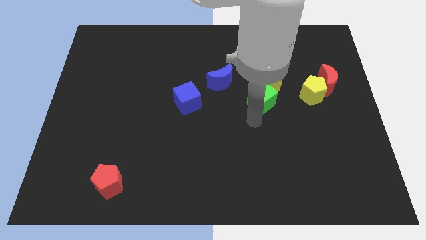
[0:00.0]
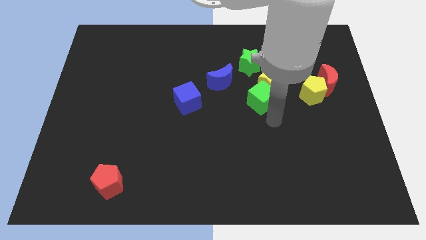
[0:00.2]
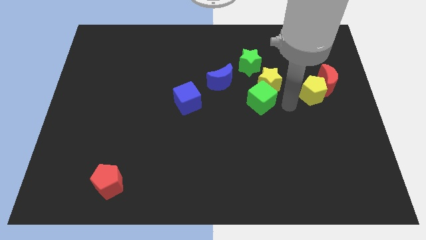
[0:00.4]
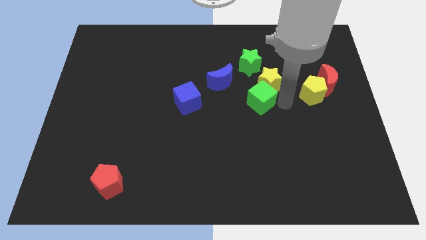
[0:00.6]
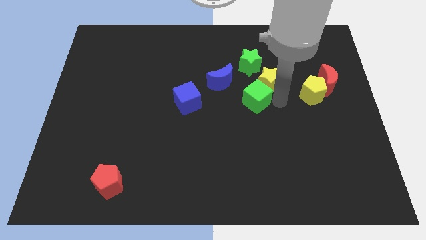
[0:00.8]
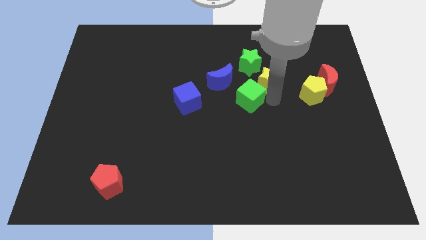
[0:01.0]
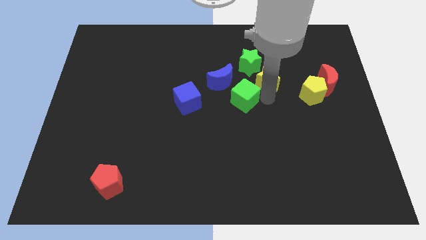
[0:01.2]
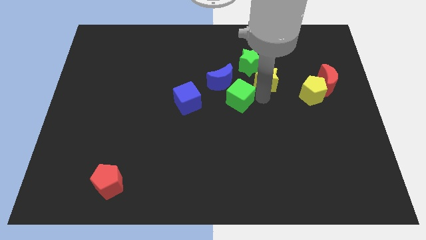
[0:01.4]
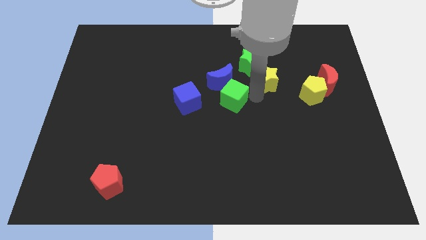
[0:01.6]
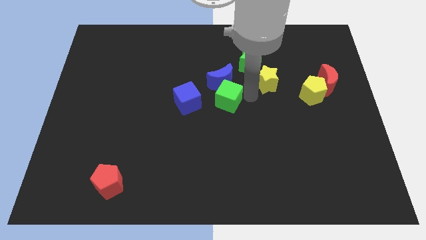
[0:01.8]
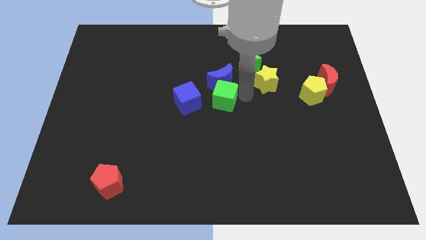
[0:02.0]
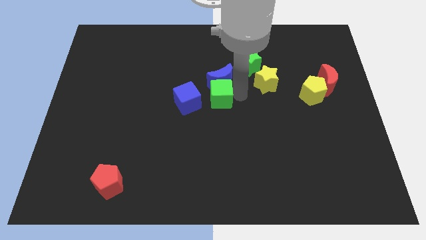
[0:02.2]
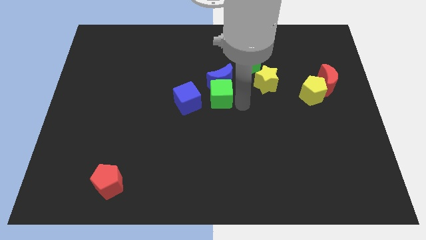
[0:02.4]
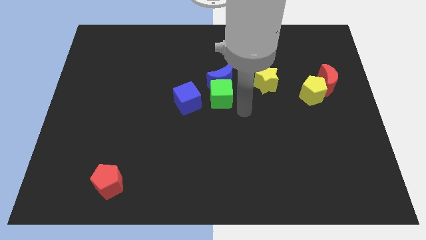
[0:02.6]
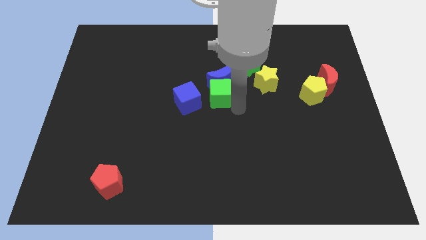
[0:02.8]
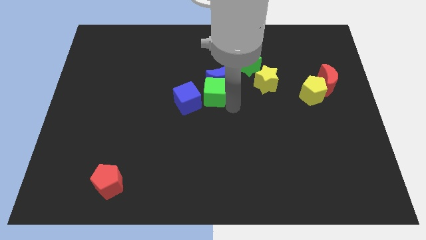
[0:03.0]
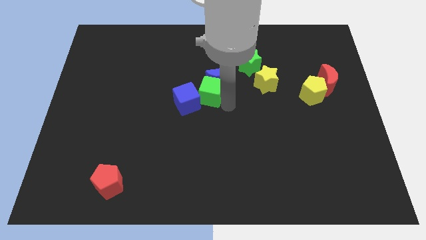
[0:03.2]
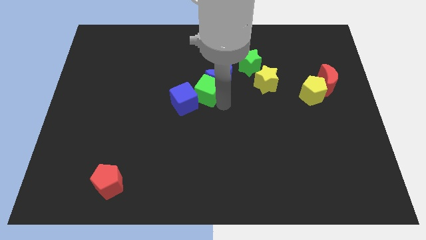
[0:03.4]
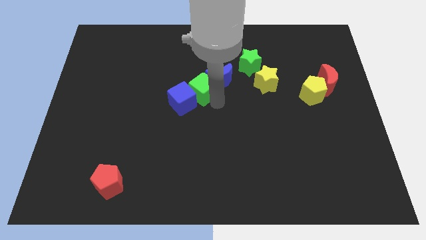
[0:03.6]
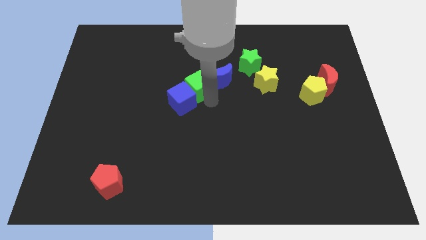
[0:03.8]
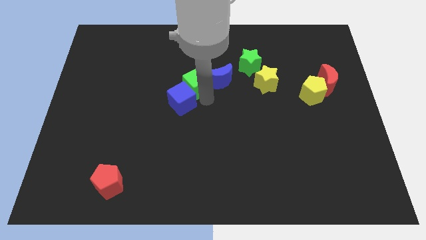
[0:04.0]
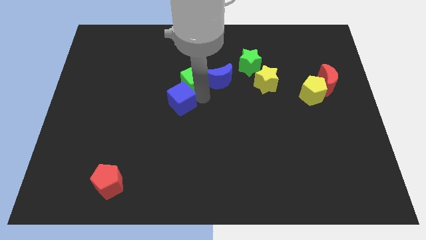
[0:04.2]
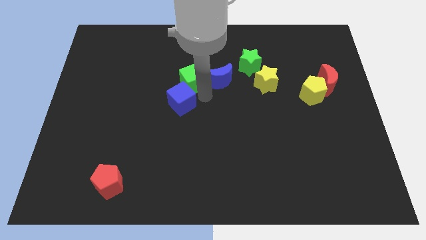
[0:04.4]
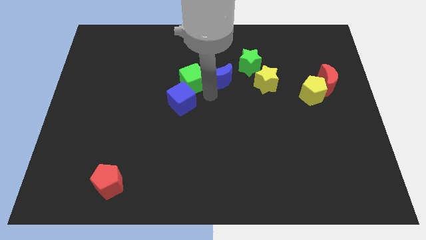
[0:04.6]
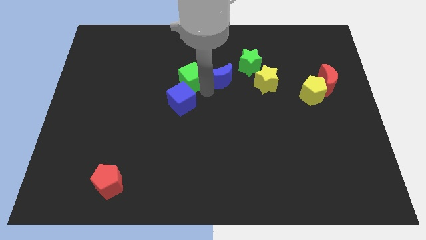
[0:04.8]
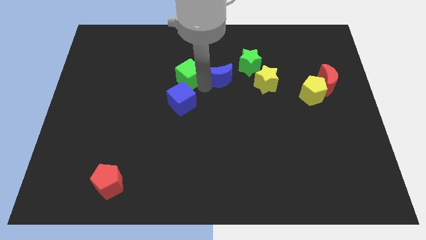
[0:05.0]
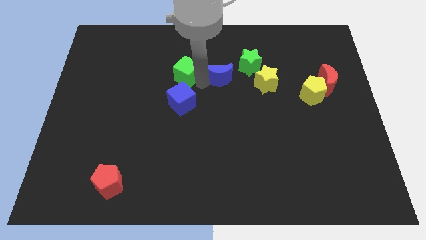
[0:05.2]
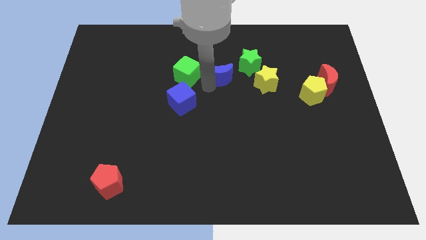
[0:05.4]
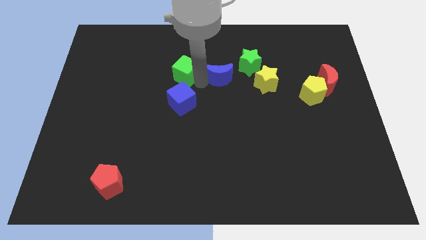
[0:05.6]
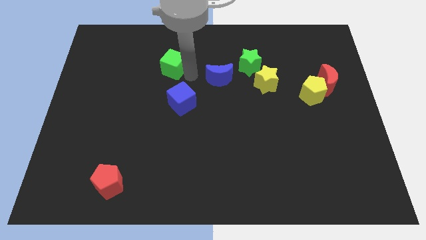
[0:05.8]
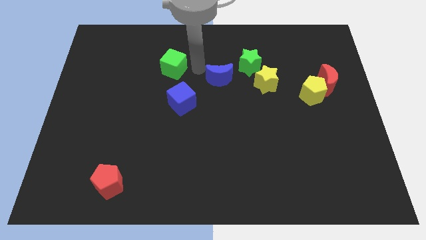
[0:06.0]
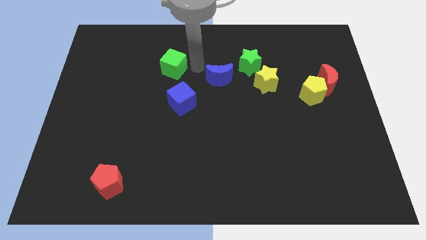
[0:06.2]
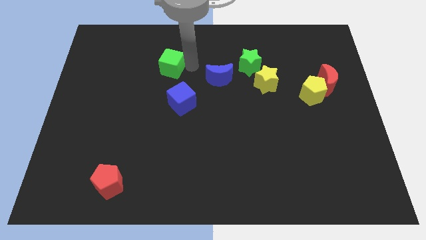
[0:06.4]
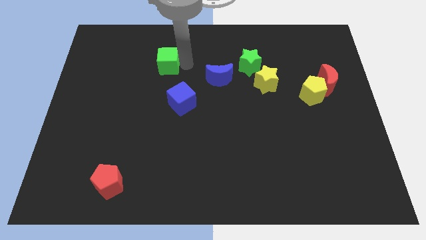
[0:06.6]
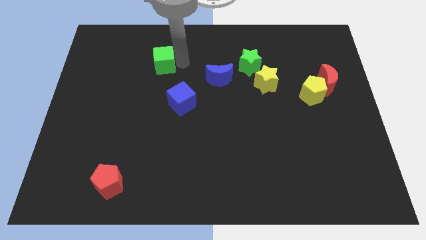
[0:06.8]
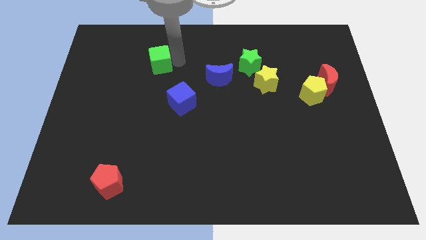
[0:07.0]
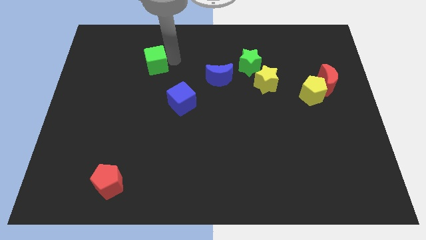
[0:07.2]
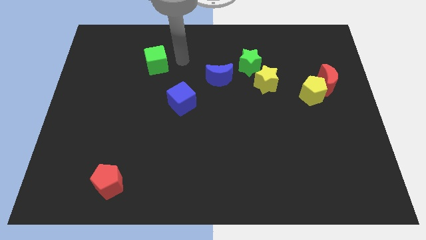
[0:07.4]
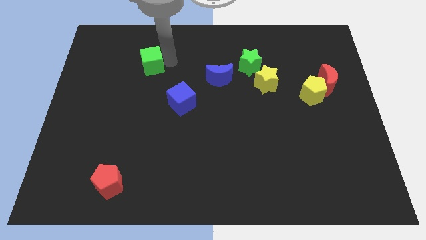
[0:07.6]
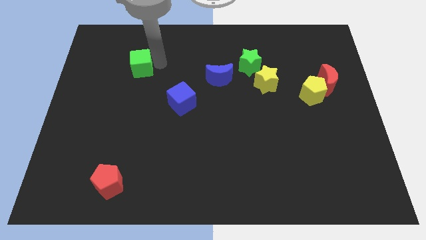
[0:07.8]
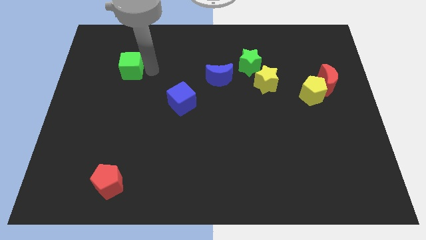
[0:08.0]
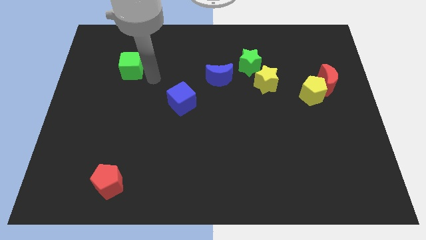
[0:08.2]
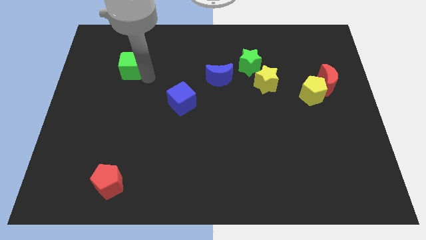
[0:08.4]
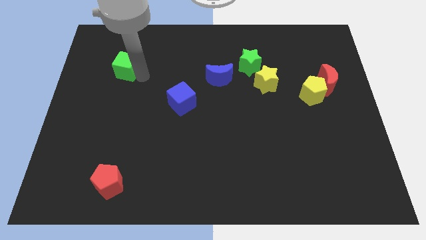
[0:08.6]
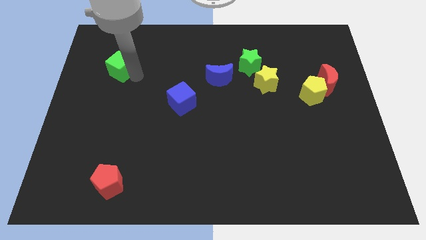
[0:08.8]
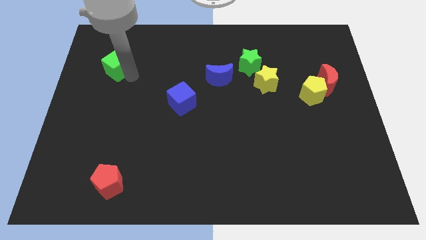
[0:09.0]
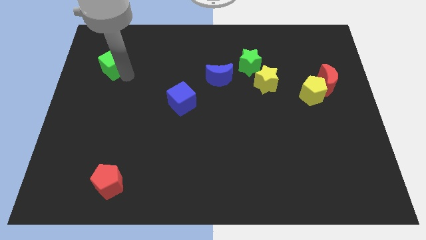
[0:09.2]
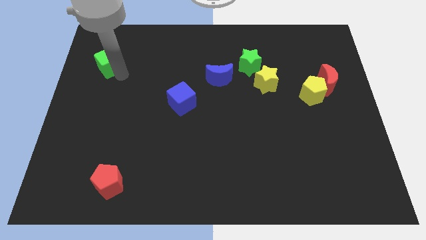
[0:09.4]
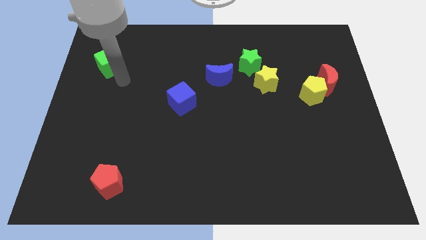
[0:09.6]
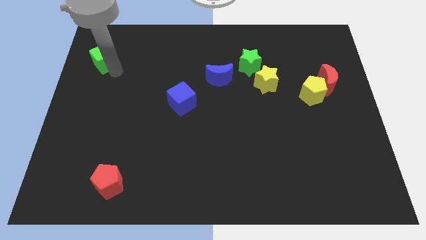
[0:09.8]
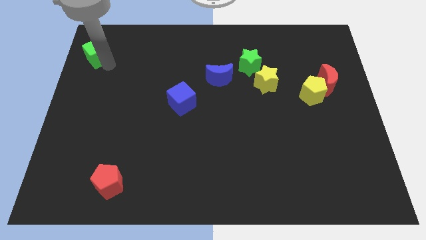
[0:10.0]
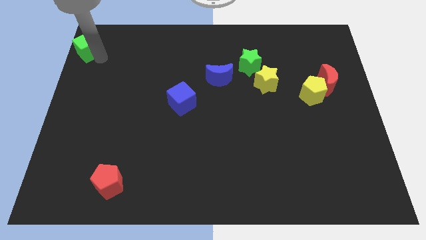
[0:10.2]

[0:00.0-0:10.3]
put the green cube to the top left of the board

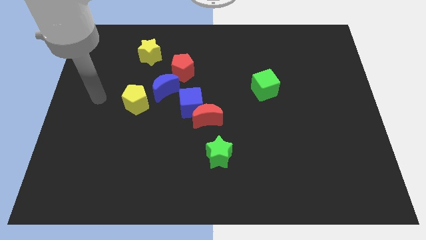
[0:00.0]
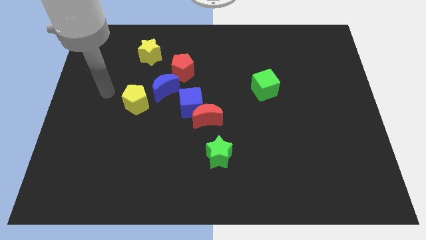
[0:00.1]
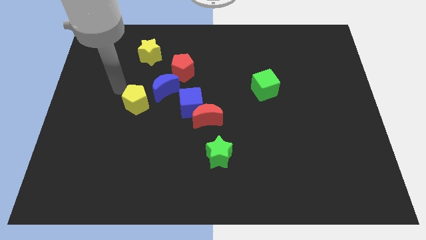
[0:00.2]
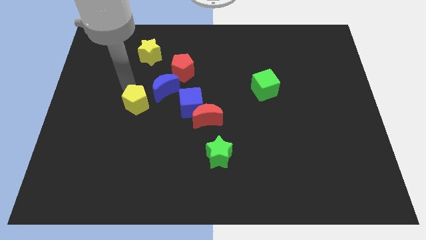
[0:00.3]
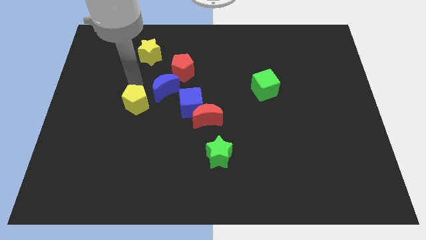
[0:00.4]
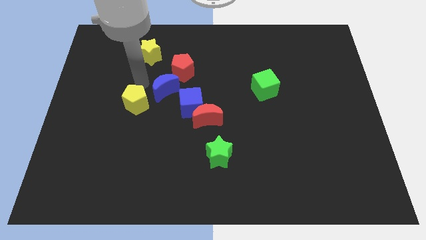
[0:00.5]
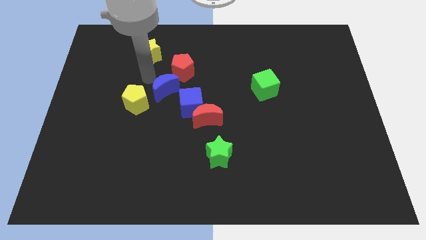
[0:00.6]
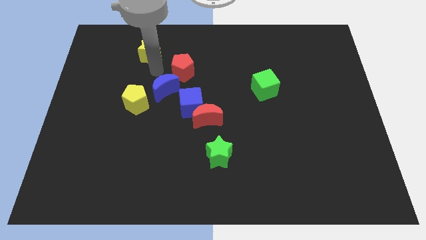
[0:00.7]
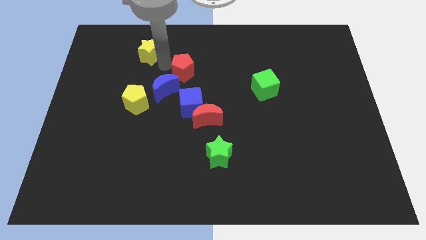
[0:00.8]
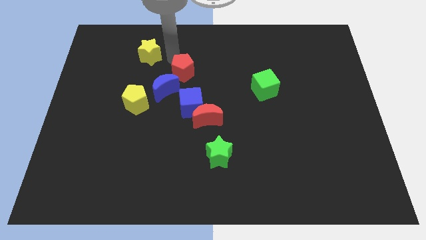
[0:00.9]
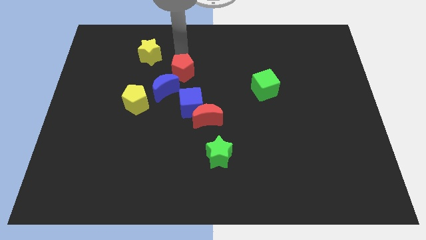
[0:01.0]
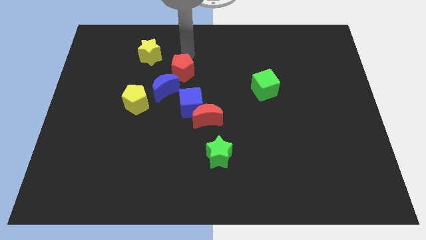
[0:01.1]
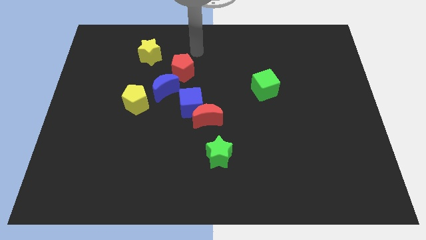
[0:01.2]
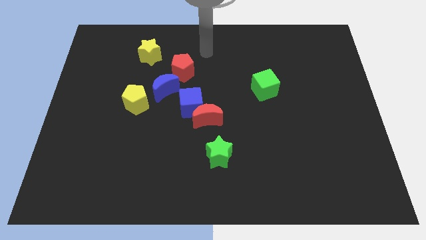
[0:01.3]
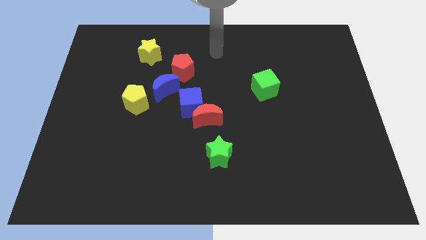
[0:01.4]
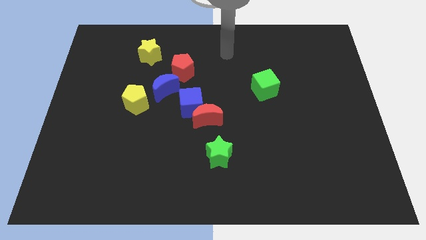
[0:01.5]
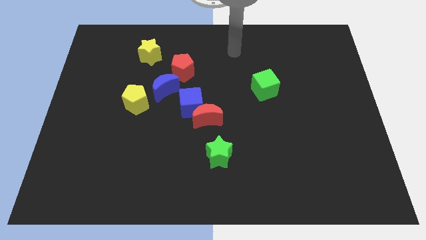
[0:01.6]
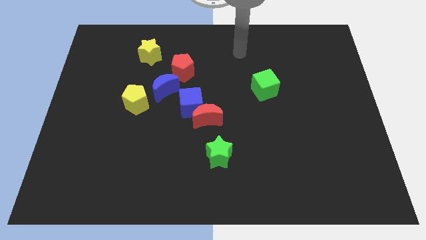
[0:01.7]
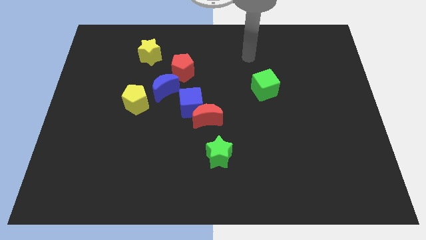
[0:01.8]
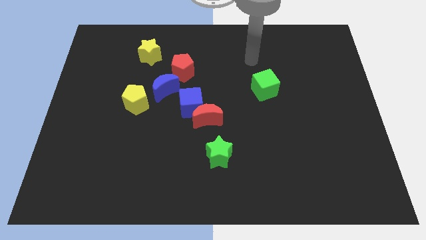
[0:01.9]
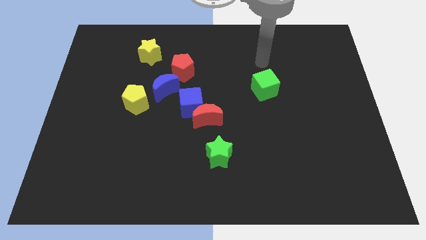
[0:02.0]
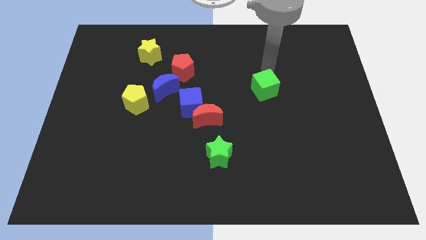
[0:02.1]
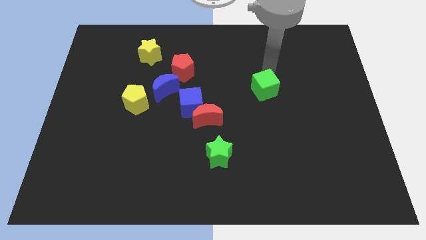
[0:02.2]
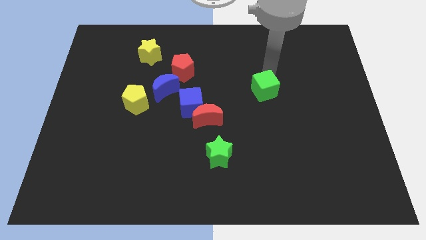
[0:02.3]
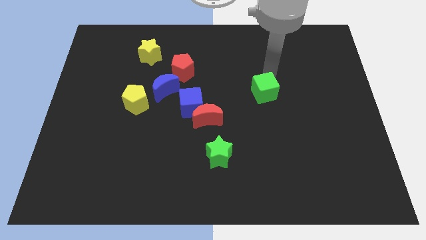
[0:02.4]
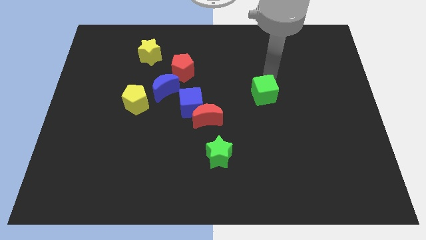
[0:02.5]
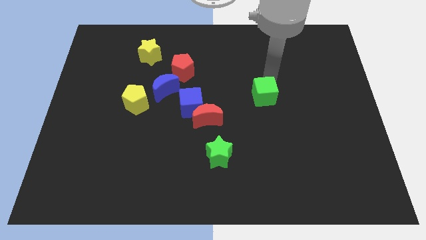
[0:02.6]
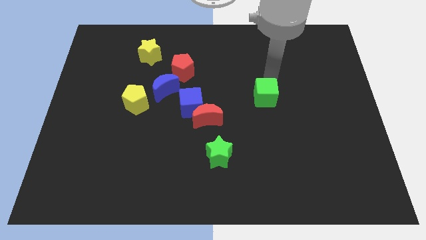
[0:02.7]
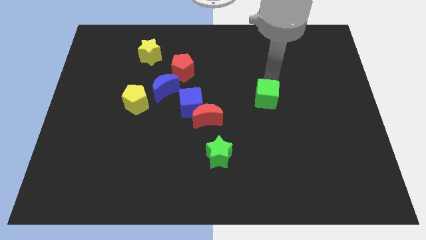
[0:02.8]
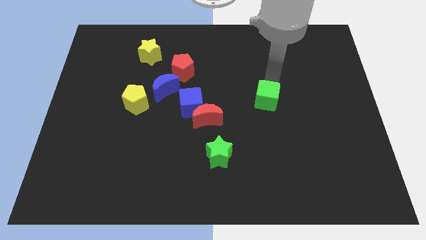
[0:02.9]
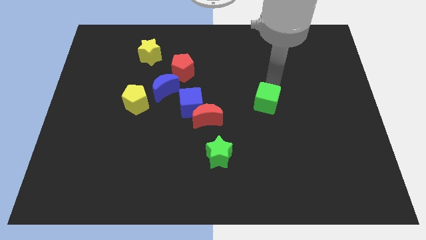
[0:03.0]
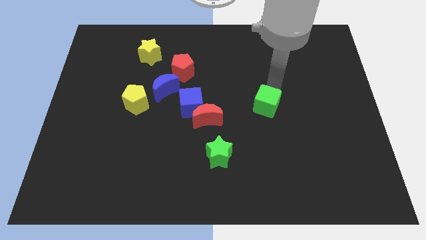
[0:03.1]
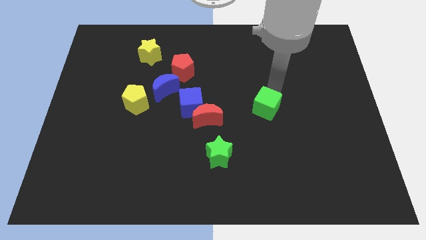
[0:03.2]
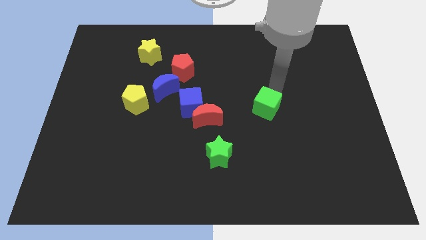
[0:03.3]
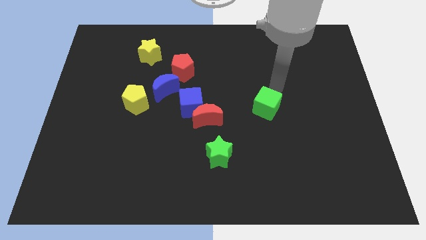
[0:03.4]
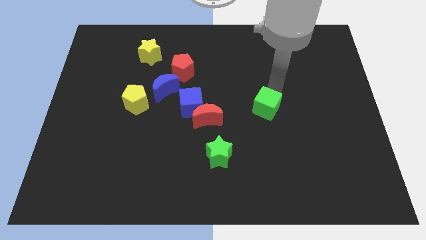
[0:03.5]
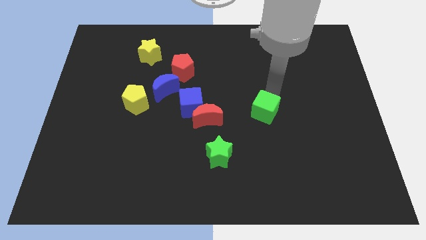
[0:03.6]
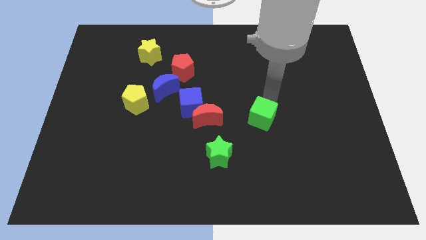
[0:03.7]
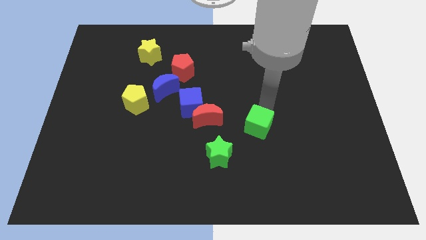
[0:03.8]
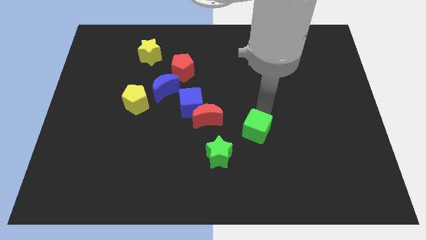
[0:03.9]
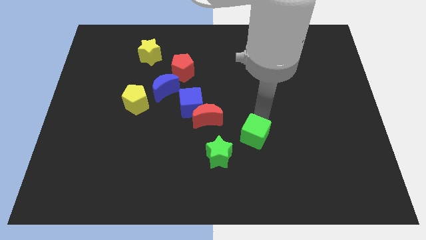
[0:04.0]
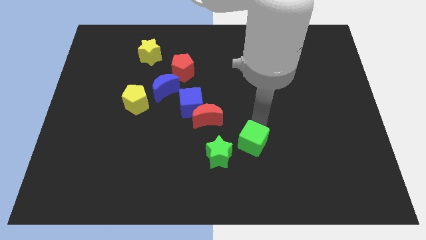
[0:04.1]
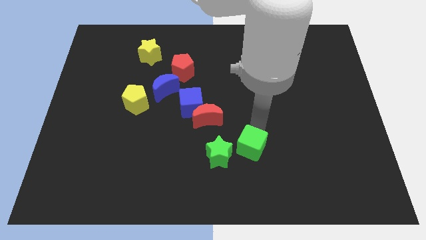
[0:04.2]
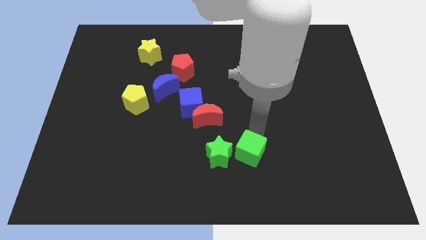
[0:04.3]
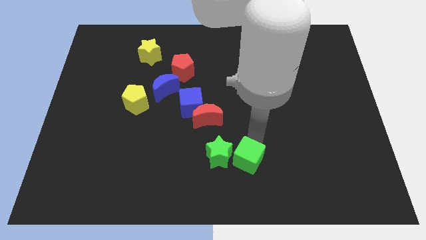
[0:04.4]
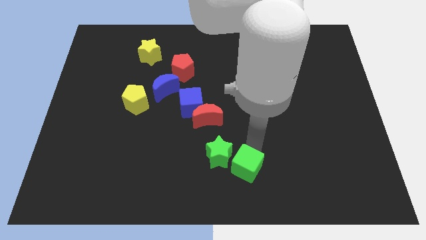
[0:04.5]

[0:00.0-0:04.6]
push the green cube to the bottom side
